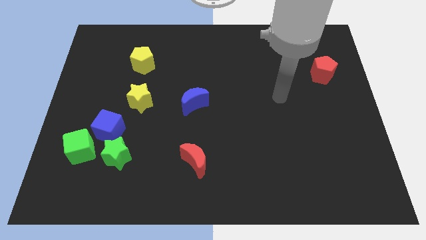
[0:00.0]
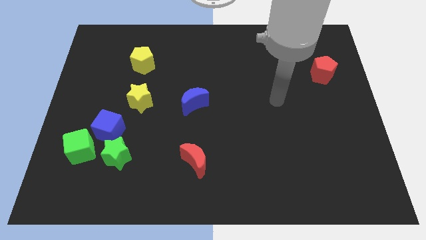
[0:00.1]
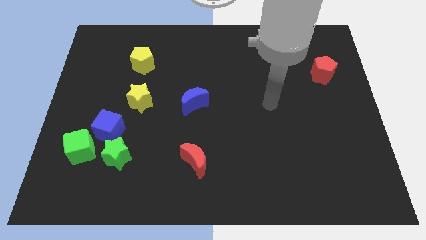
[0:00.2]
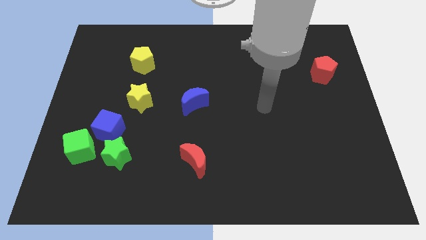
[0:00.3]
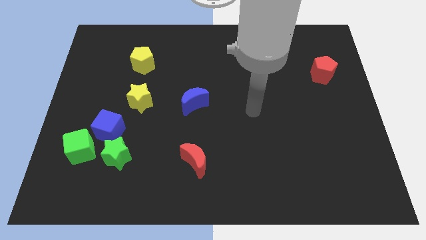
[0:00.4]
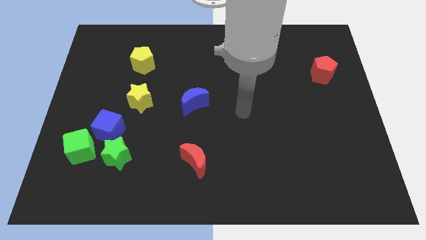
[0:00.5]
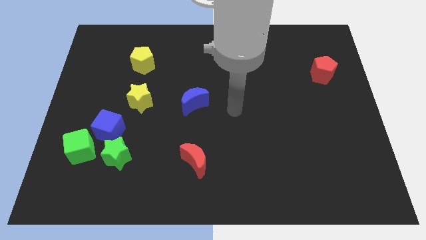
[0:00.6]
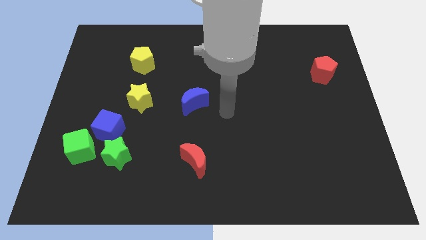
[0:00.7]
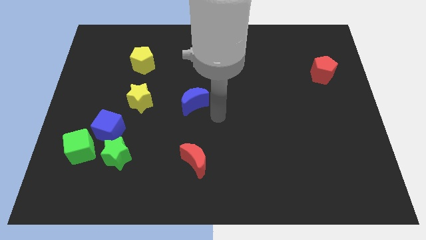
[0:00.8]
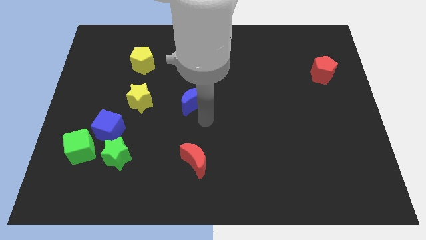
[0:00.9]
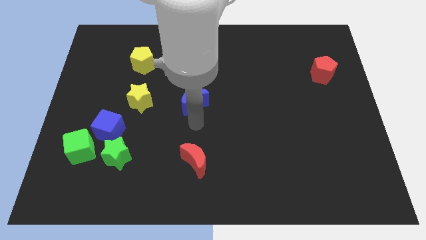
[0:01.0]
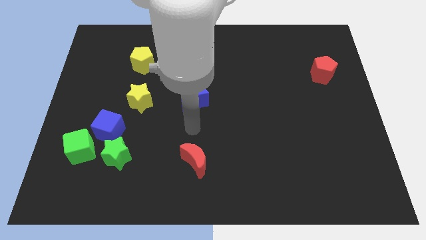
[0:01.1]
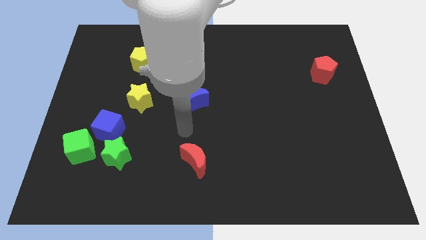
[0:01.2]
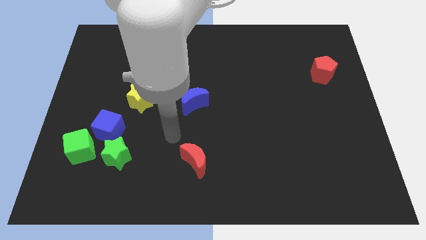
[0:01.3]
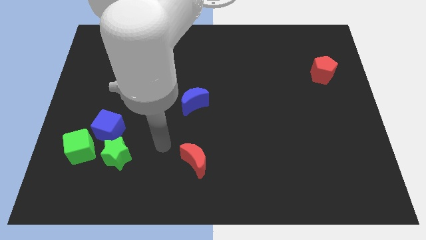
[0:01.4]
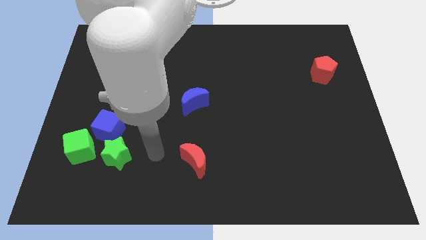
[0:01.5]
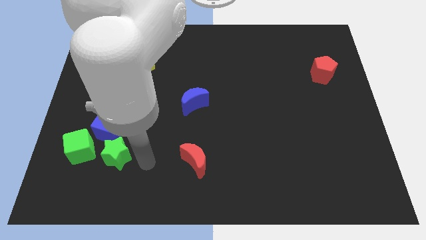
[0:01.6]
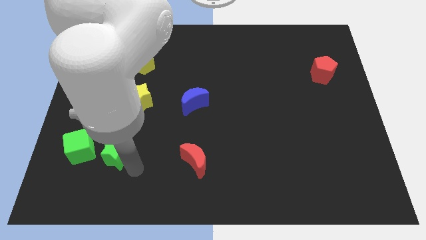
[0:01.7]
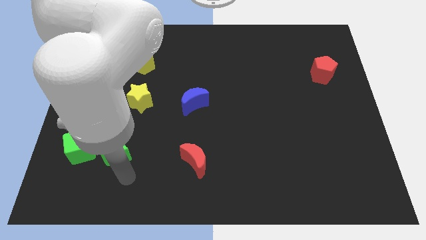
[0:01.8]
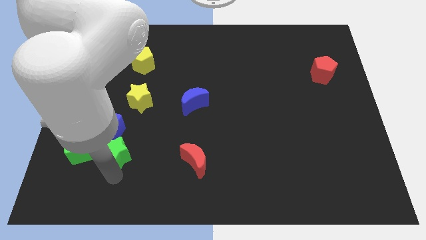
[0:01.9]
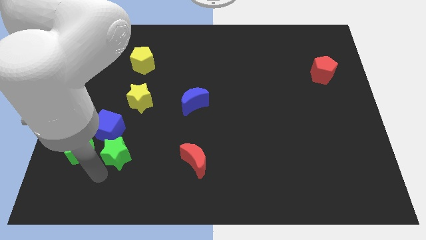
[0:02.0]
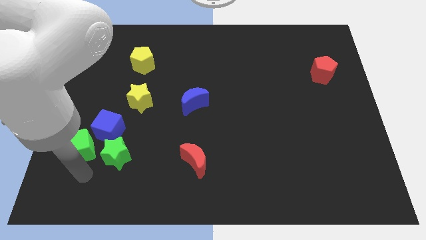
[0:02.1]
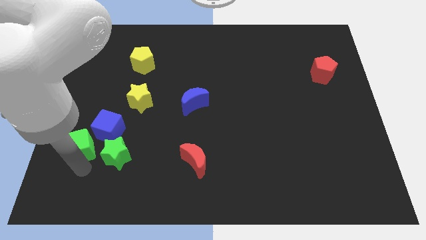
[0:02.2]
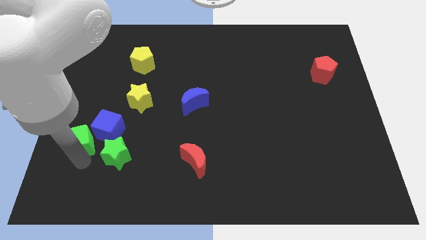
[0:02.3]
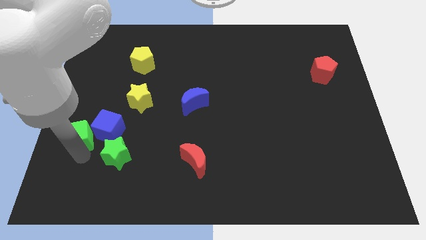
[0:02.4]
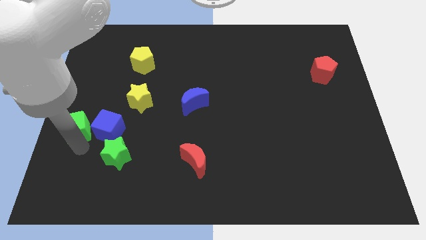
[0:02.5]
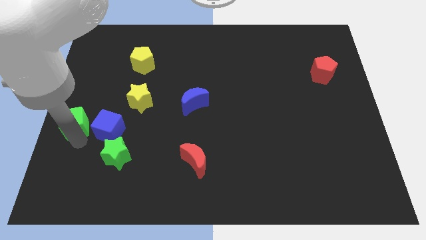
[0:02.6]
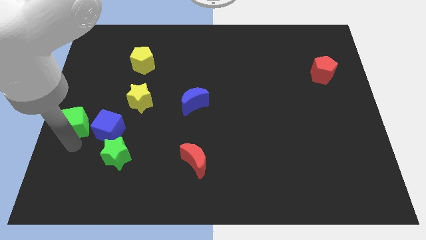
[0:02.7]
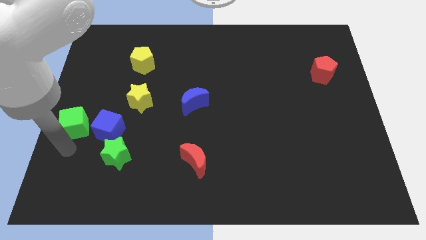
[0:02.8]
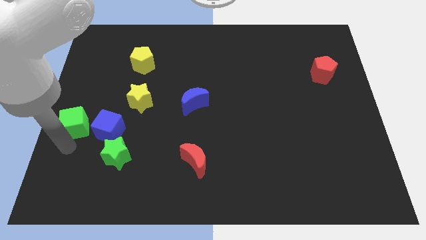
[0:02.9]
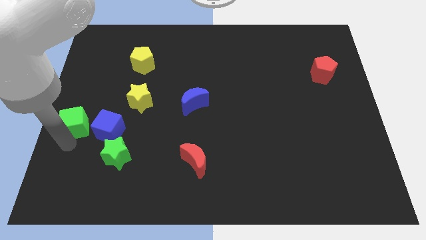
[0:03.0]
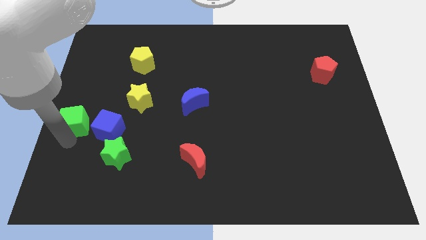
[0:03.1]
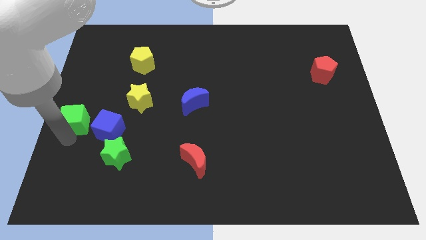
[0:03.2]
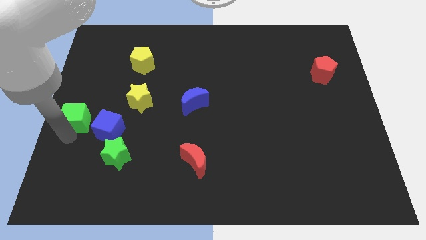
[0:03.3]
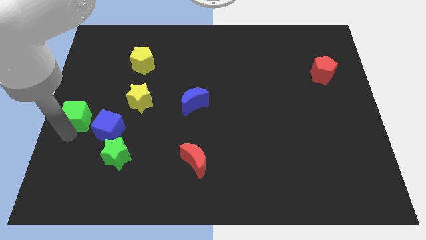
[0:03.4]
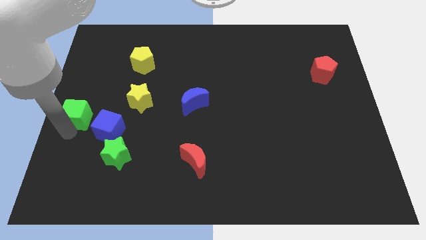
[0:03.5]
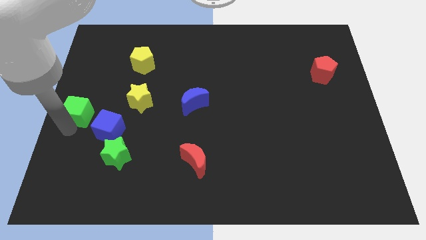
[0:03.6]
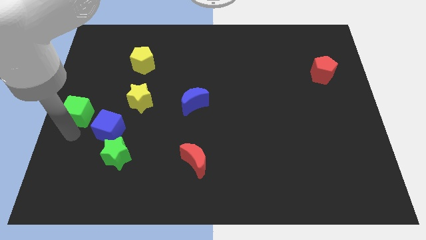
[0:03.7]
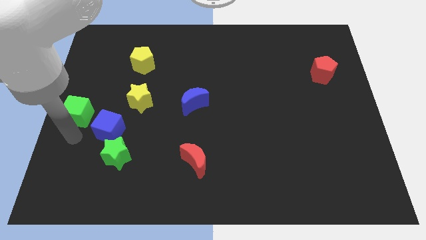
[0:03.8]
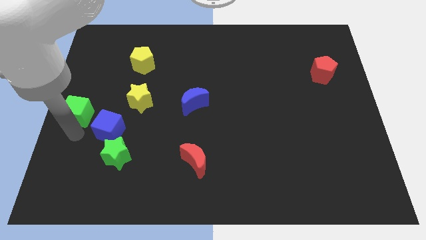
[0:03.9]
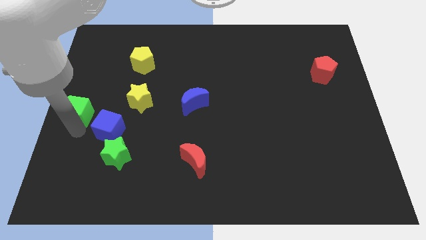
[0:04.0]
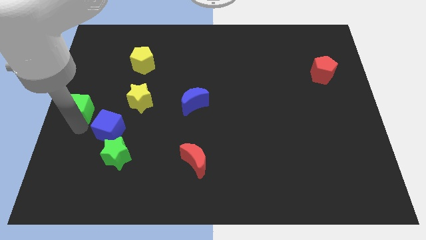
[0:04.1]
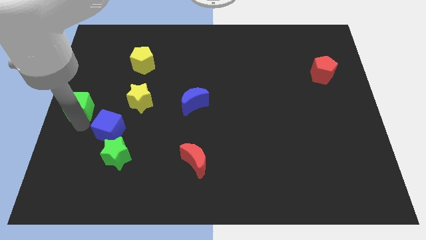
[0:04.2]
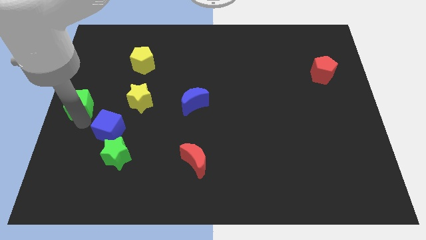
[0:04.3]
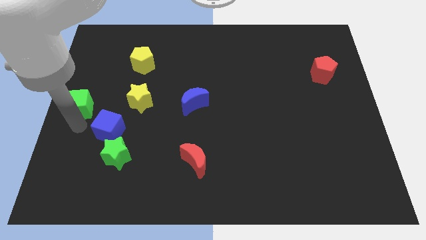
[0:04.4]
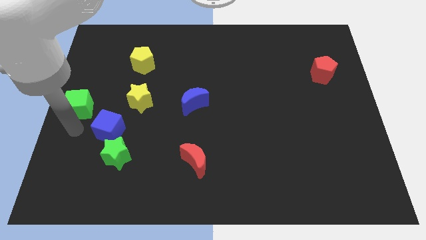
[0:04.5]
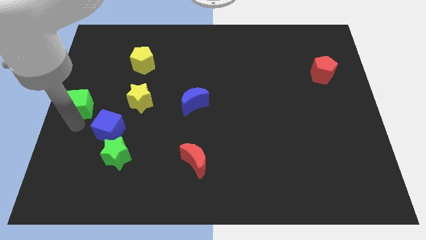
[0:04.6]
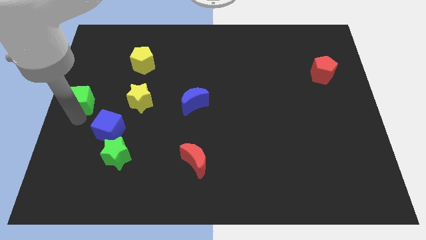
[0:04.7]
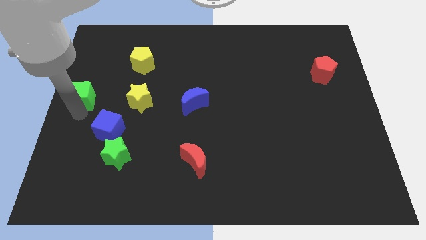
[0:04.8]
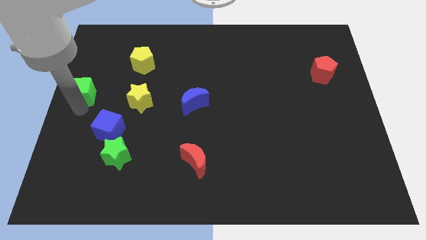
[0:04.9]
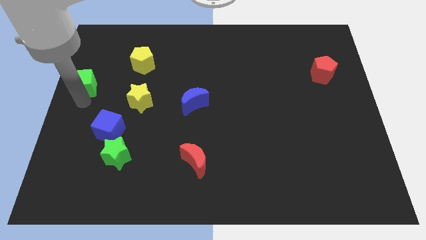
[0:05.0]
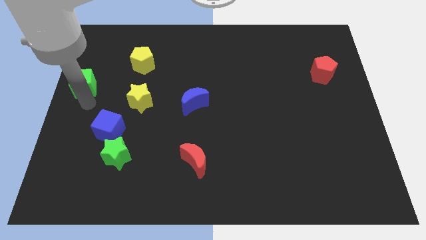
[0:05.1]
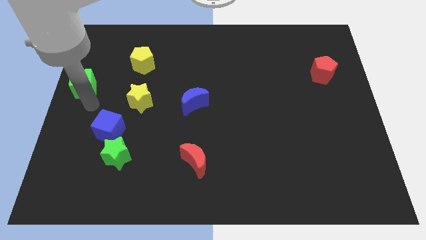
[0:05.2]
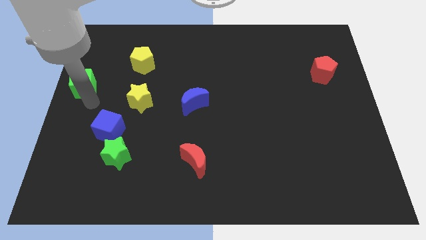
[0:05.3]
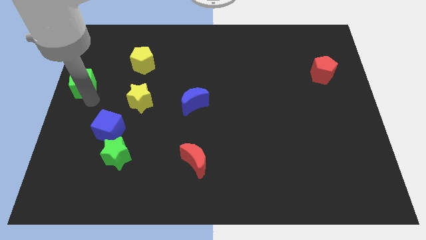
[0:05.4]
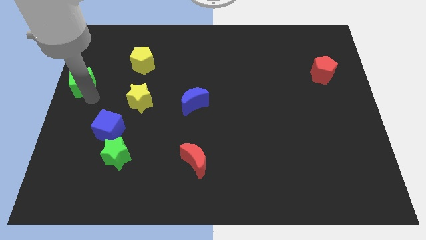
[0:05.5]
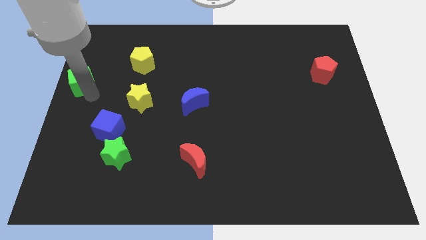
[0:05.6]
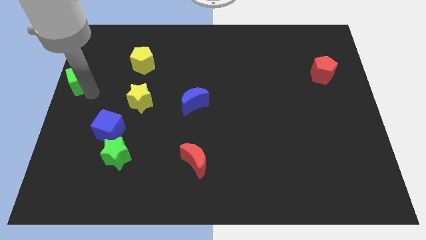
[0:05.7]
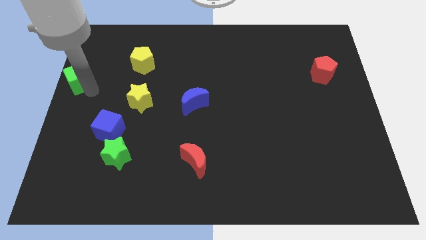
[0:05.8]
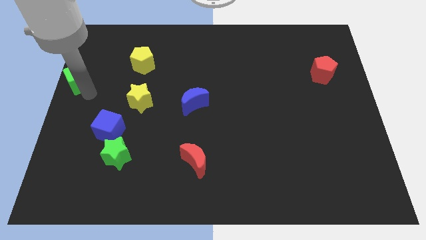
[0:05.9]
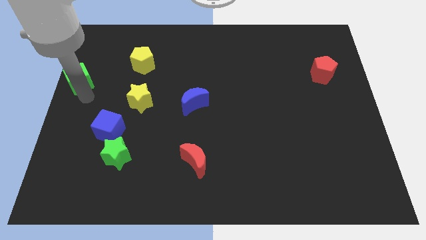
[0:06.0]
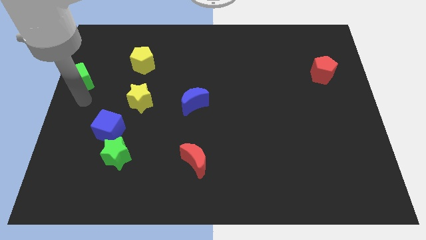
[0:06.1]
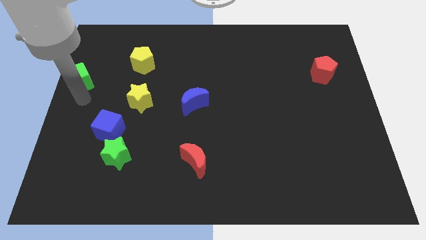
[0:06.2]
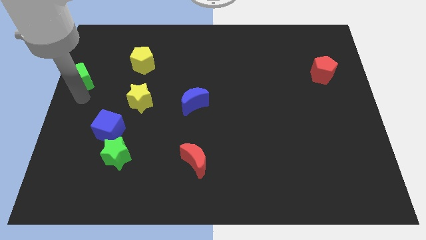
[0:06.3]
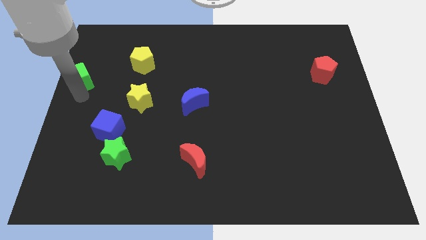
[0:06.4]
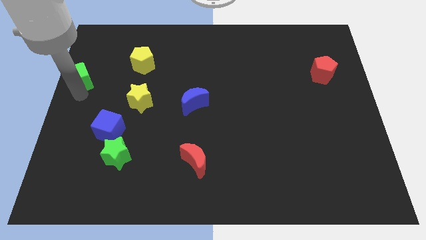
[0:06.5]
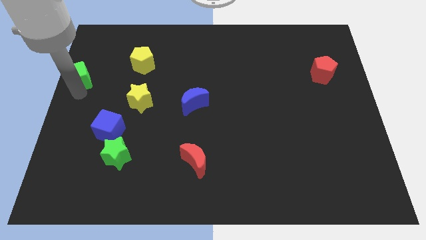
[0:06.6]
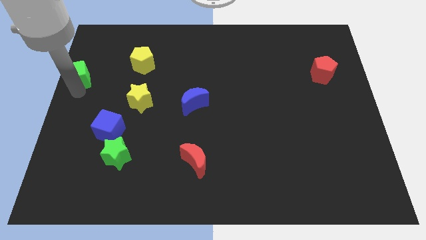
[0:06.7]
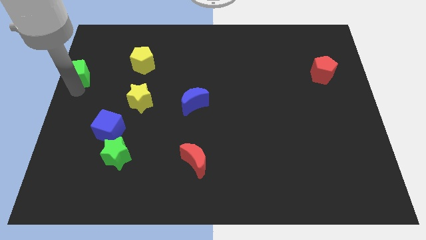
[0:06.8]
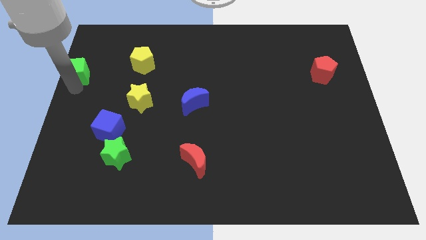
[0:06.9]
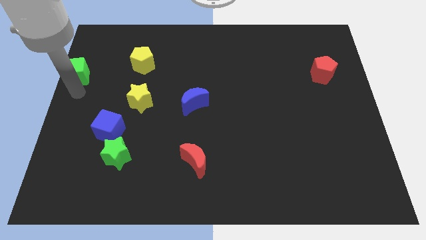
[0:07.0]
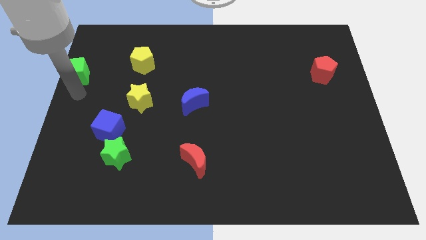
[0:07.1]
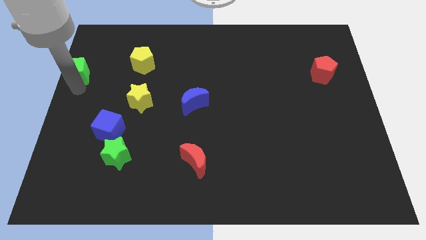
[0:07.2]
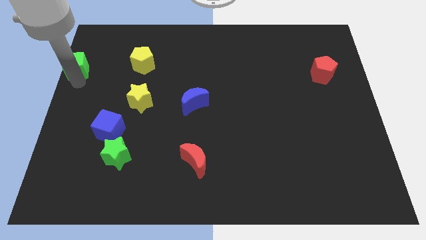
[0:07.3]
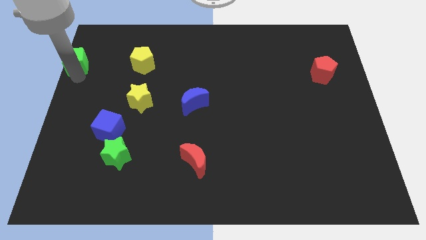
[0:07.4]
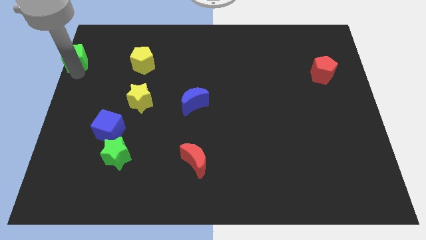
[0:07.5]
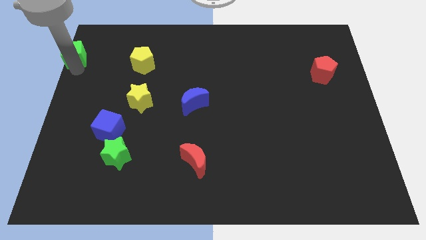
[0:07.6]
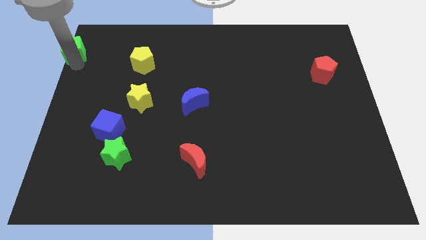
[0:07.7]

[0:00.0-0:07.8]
move the green cube to the top left corner
